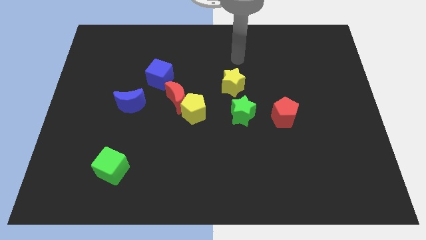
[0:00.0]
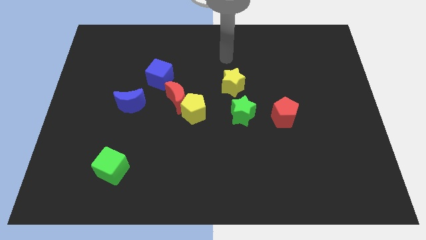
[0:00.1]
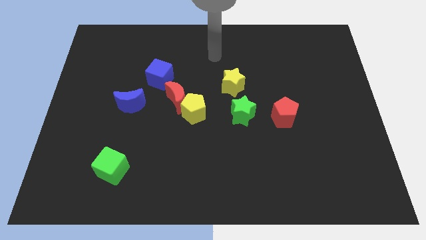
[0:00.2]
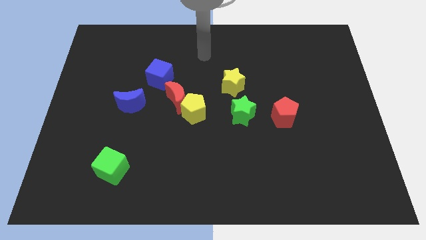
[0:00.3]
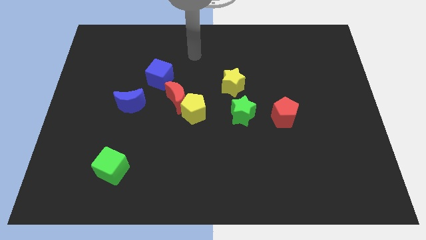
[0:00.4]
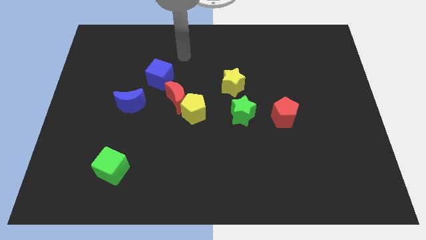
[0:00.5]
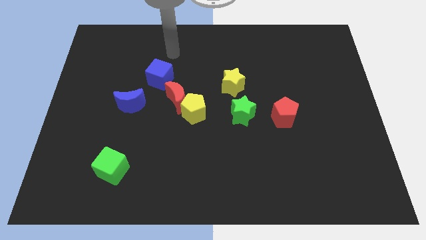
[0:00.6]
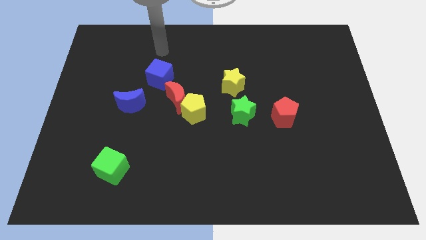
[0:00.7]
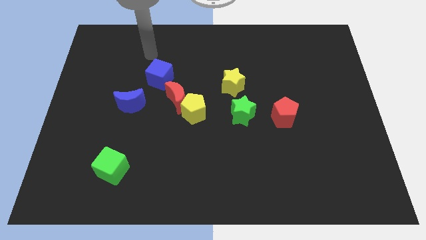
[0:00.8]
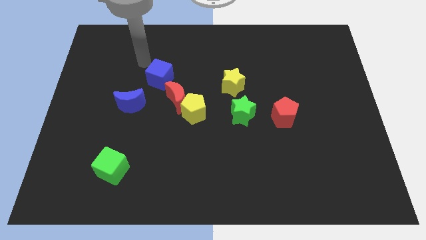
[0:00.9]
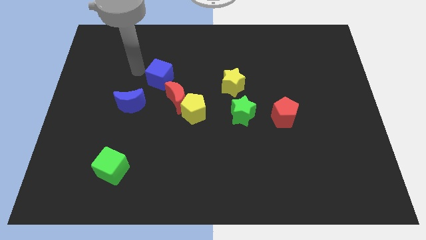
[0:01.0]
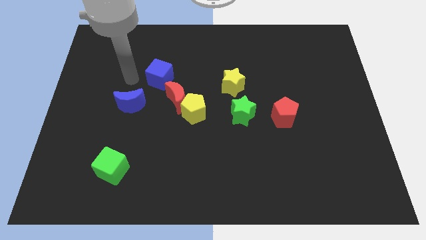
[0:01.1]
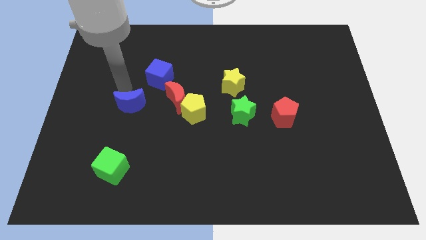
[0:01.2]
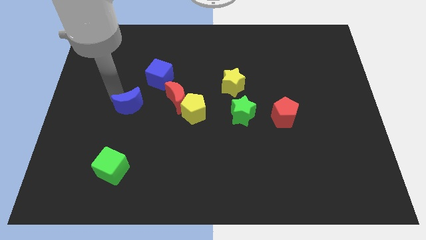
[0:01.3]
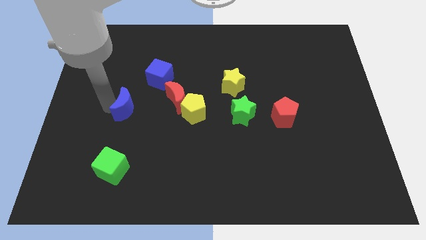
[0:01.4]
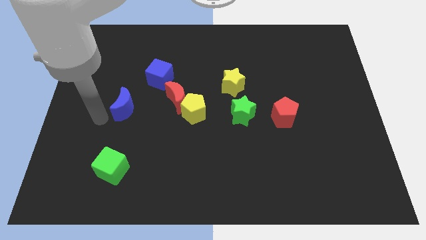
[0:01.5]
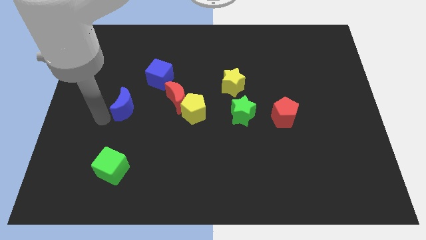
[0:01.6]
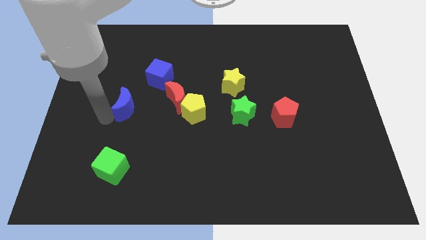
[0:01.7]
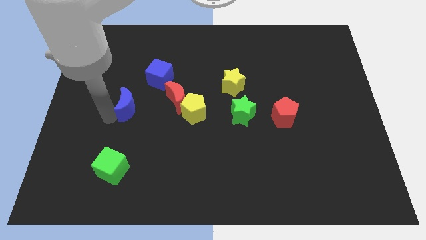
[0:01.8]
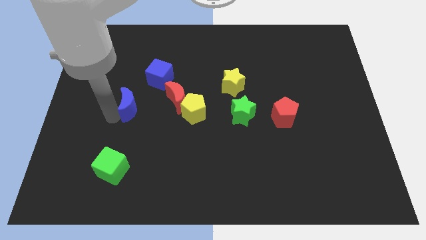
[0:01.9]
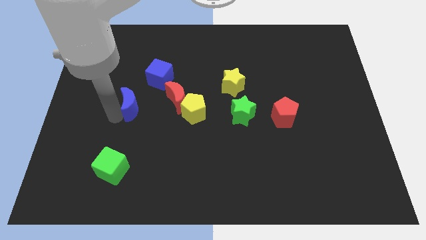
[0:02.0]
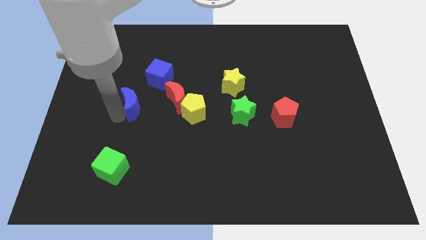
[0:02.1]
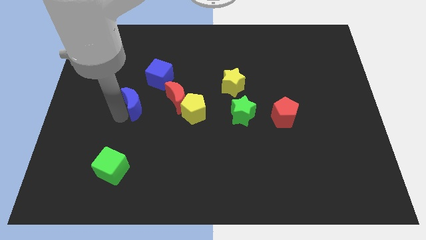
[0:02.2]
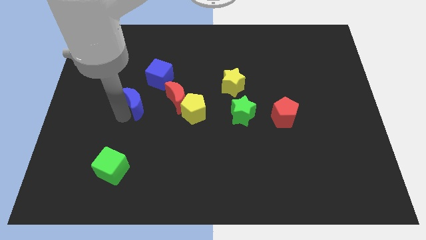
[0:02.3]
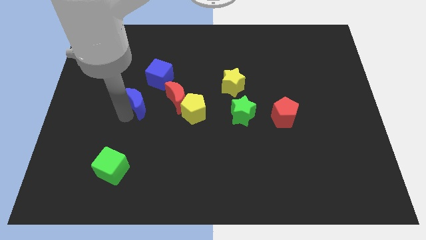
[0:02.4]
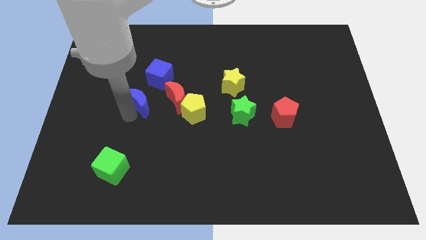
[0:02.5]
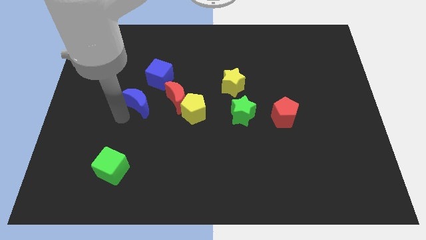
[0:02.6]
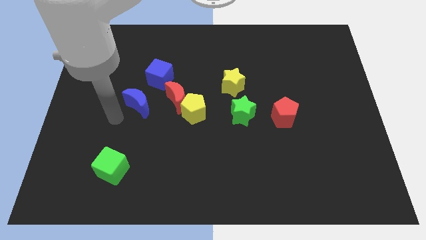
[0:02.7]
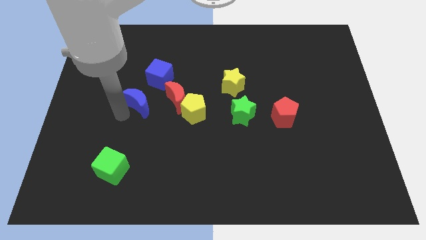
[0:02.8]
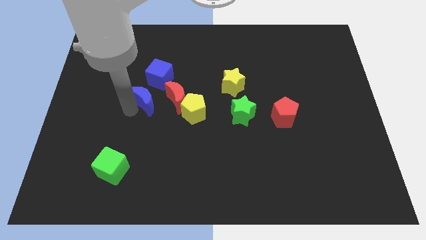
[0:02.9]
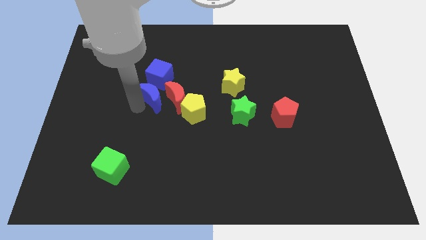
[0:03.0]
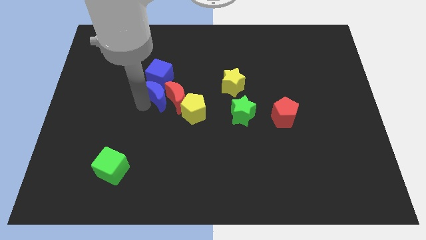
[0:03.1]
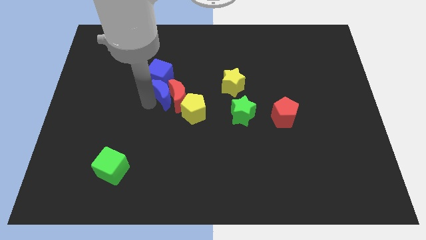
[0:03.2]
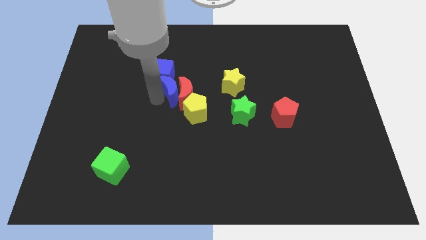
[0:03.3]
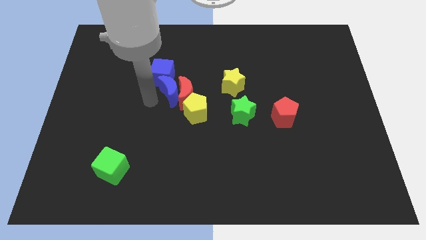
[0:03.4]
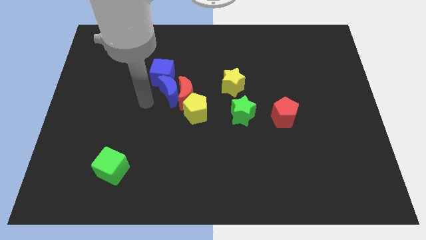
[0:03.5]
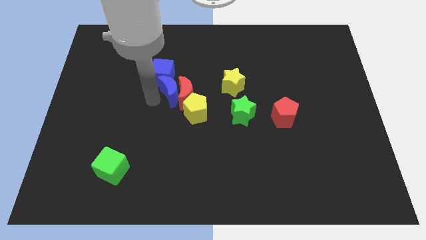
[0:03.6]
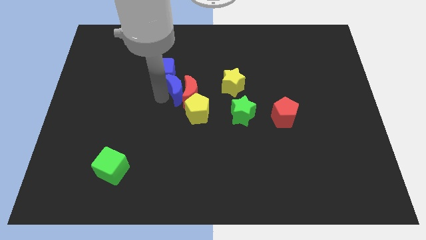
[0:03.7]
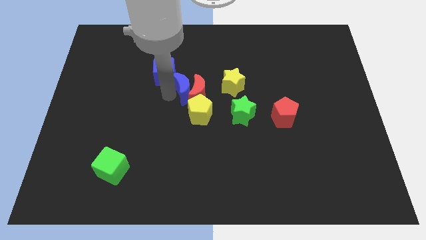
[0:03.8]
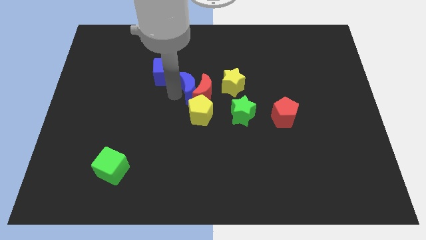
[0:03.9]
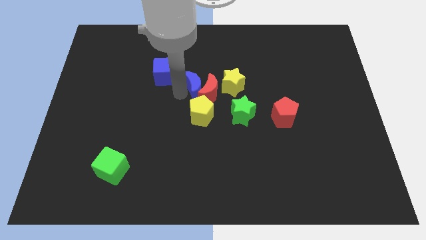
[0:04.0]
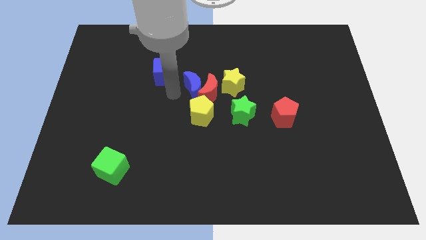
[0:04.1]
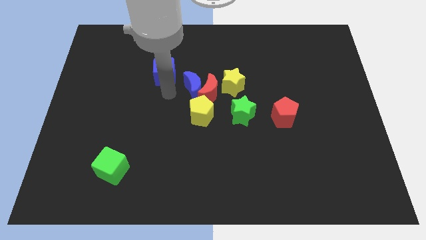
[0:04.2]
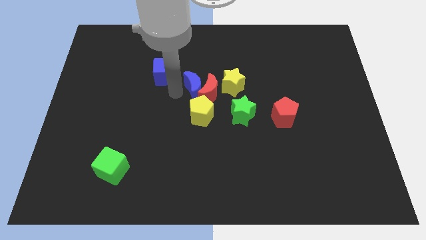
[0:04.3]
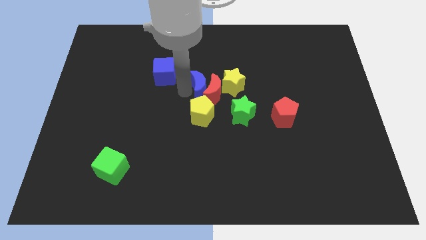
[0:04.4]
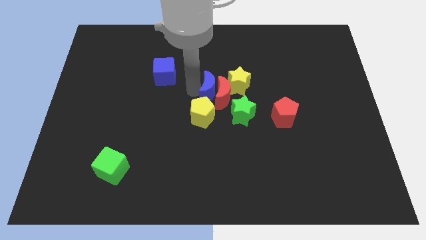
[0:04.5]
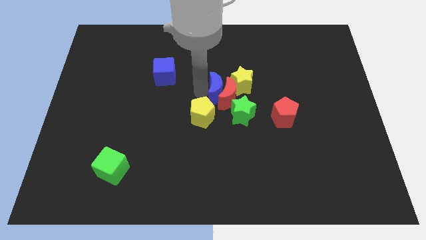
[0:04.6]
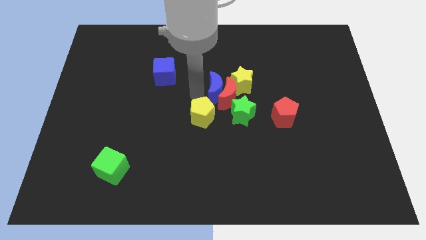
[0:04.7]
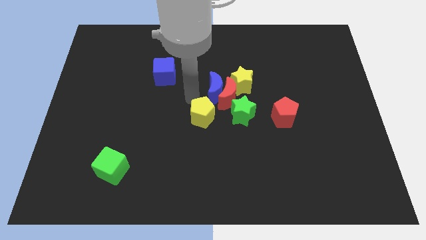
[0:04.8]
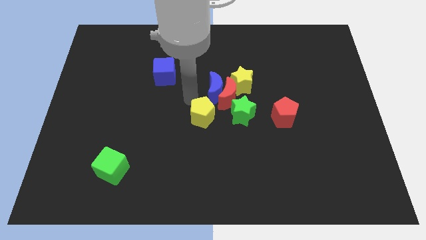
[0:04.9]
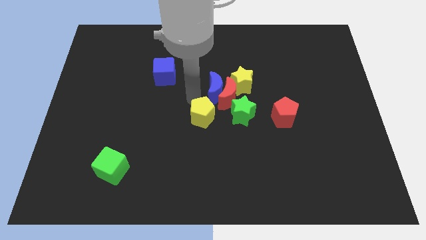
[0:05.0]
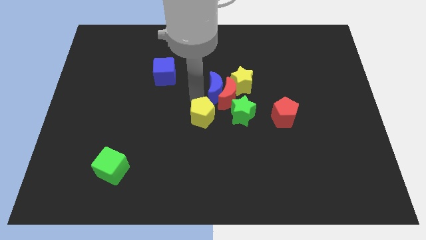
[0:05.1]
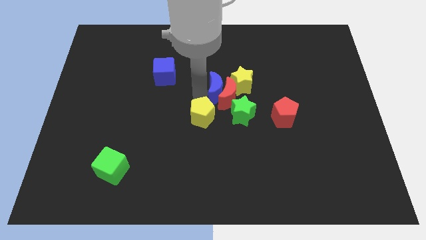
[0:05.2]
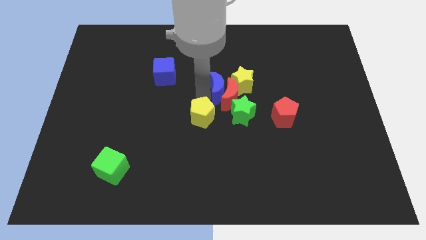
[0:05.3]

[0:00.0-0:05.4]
move the blue moon next to the yellow star

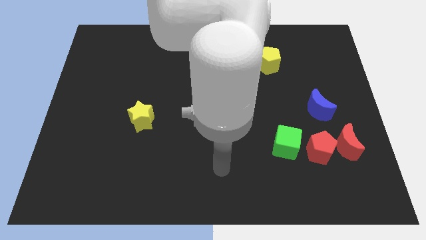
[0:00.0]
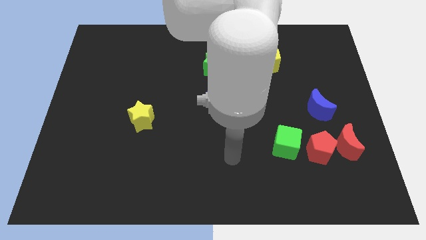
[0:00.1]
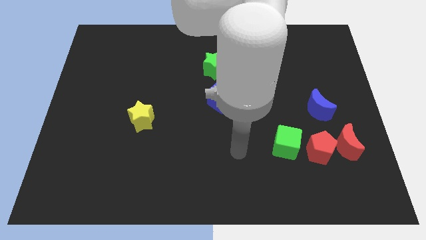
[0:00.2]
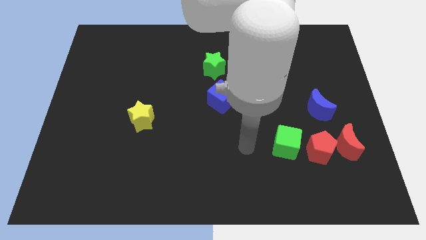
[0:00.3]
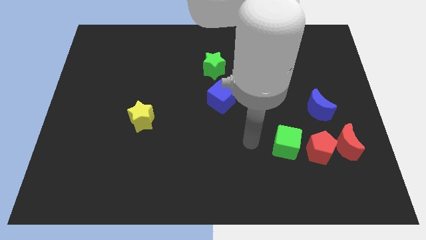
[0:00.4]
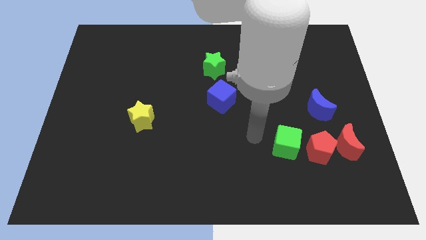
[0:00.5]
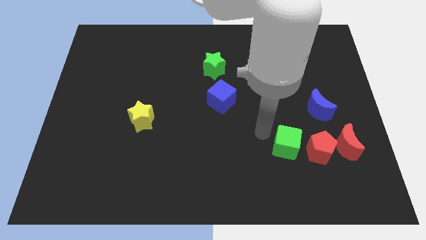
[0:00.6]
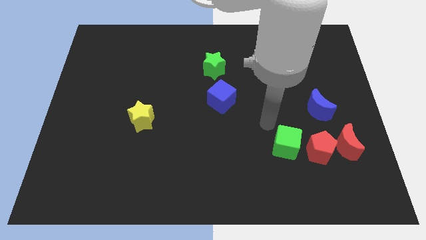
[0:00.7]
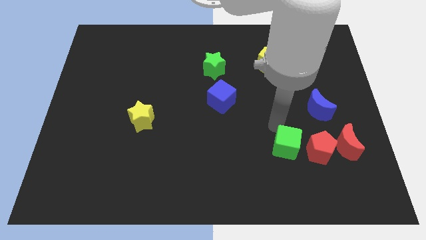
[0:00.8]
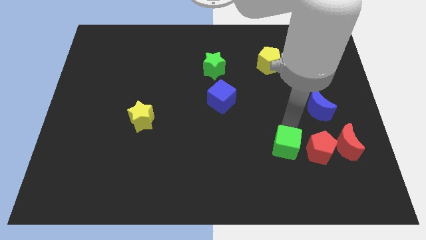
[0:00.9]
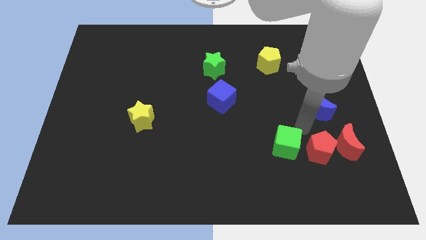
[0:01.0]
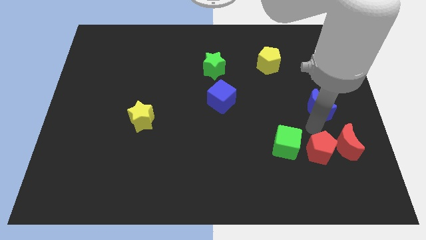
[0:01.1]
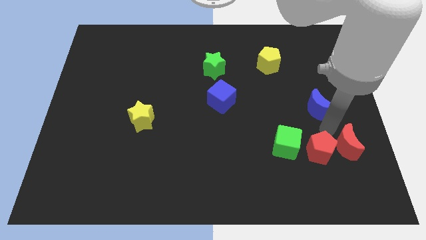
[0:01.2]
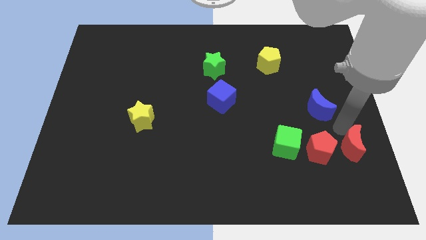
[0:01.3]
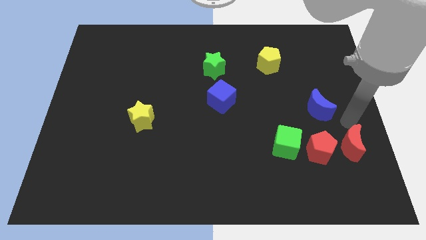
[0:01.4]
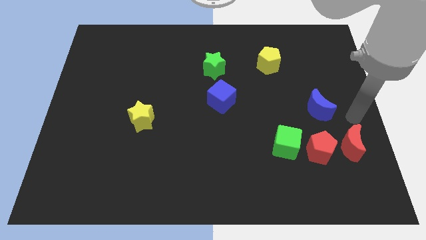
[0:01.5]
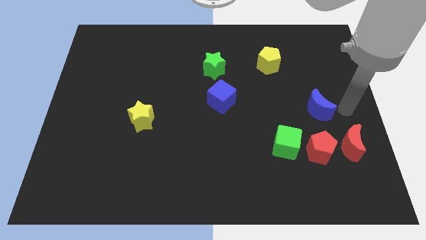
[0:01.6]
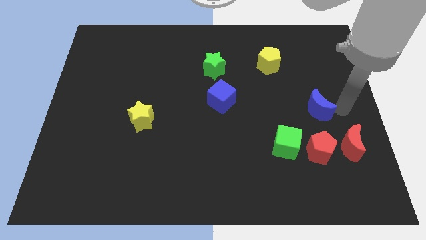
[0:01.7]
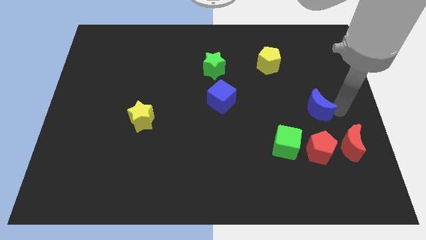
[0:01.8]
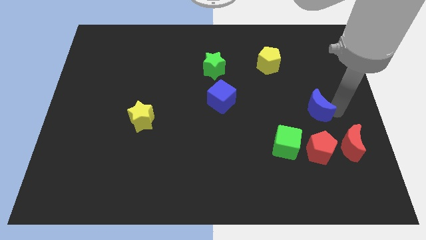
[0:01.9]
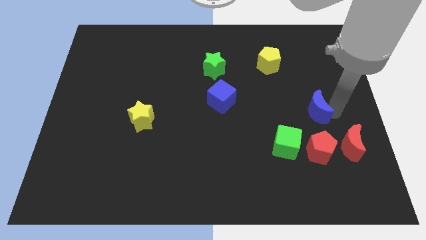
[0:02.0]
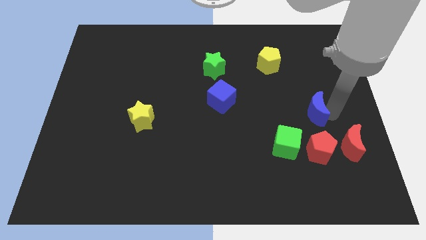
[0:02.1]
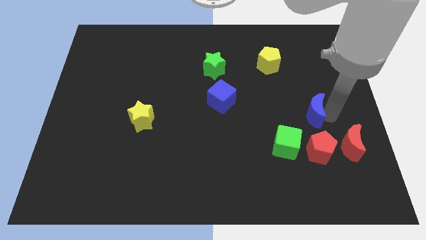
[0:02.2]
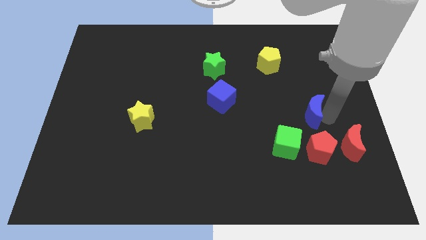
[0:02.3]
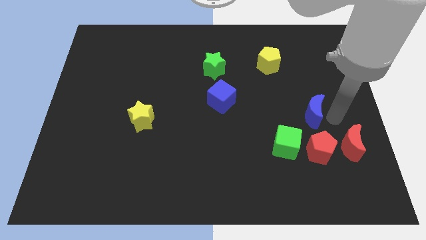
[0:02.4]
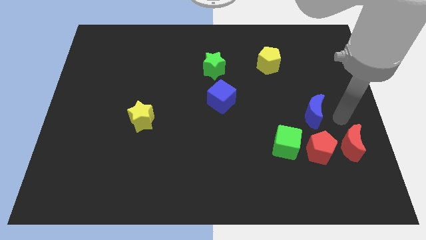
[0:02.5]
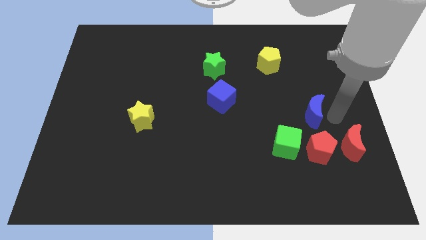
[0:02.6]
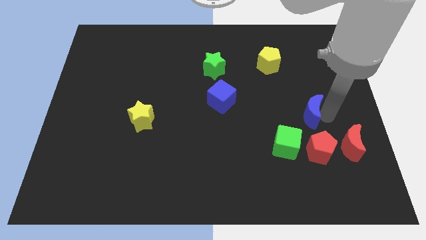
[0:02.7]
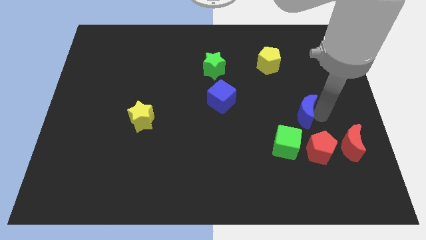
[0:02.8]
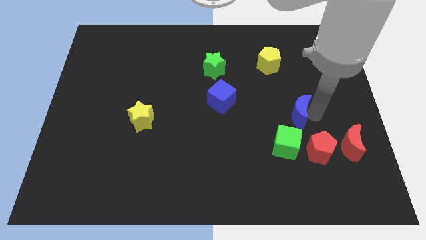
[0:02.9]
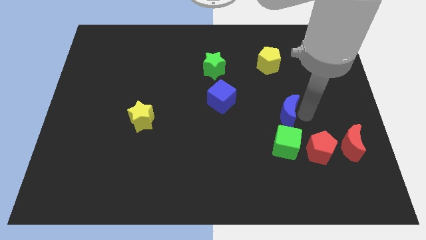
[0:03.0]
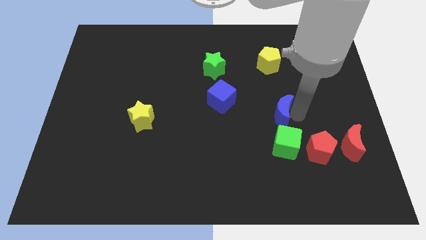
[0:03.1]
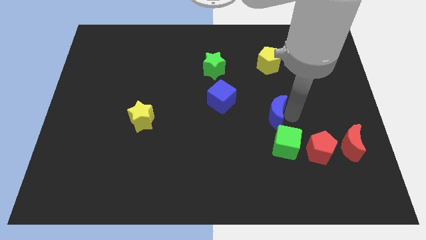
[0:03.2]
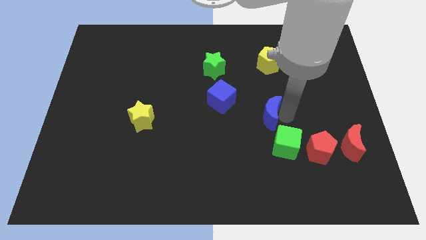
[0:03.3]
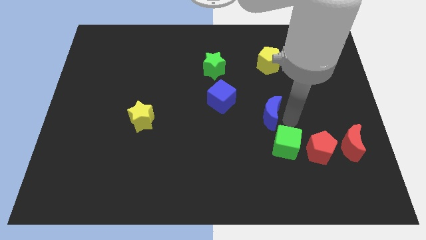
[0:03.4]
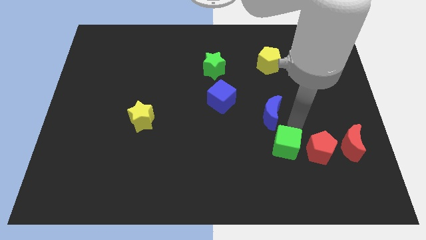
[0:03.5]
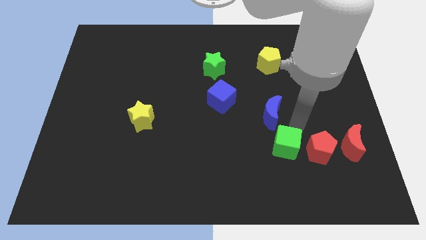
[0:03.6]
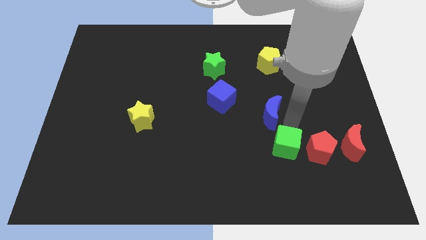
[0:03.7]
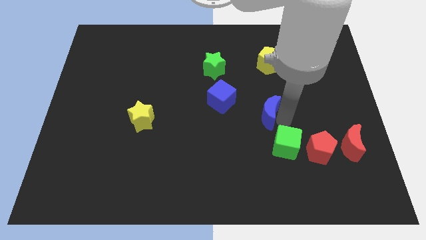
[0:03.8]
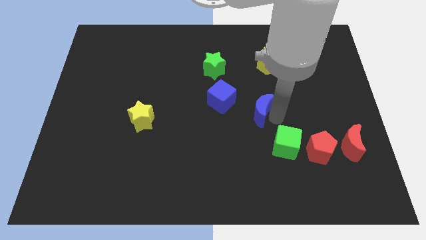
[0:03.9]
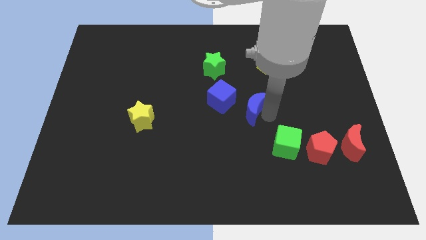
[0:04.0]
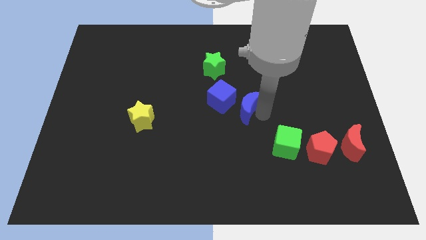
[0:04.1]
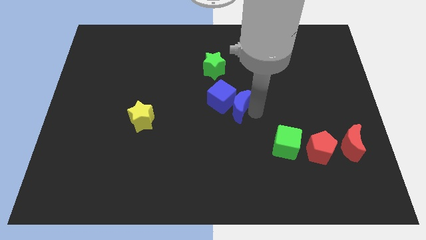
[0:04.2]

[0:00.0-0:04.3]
push the blue moon to the blue cube
